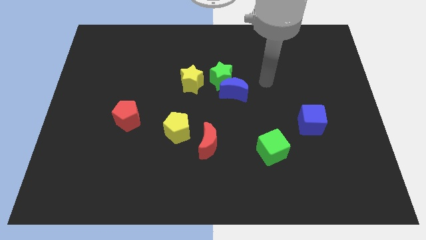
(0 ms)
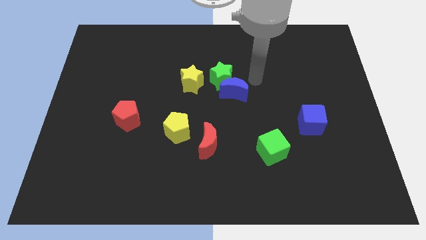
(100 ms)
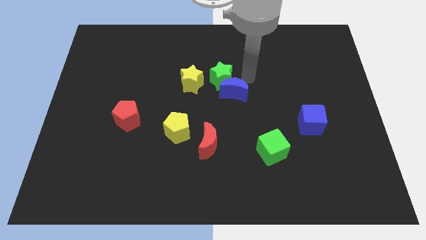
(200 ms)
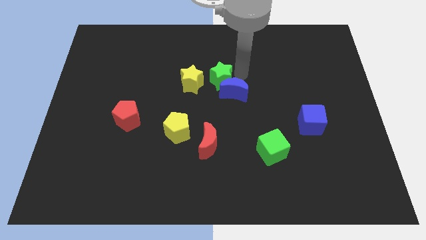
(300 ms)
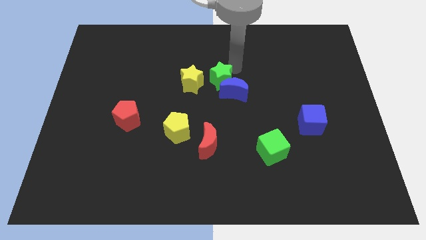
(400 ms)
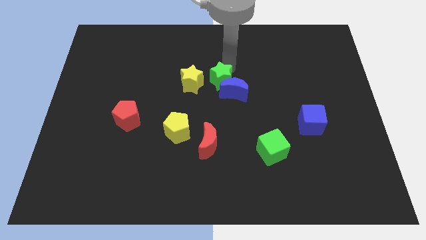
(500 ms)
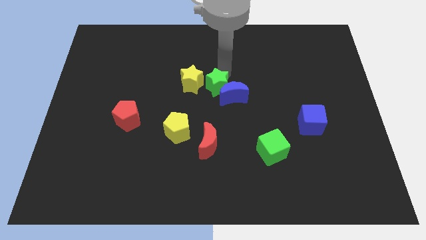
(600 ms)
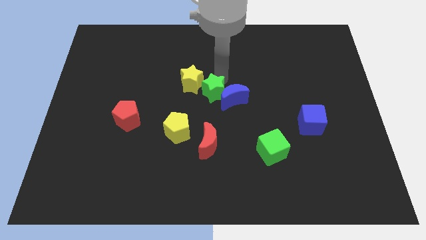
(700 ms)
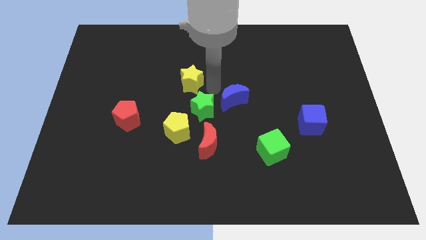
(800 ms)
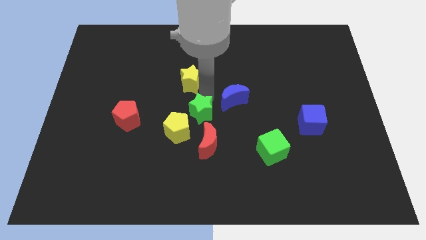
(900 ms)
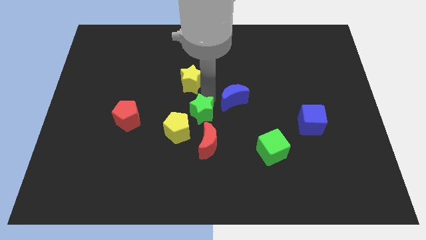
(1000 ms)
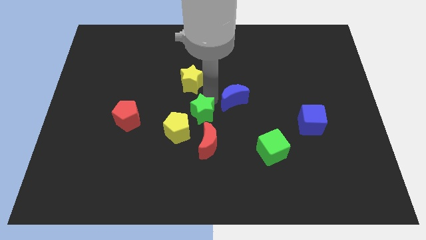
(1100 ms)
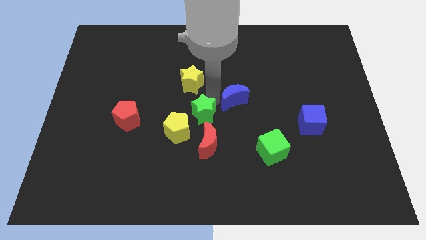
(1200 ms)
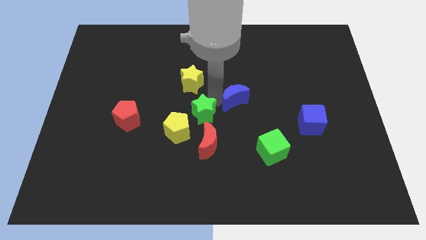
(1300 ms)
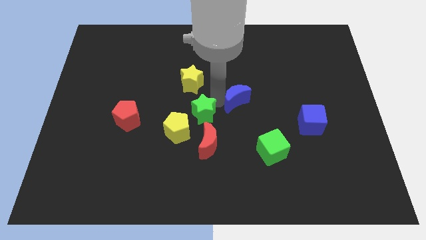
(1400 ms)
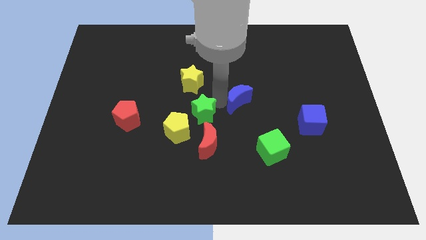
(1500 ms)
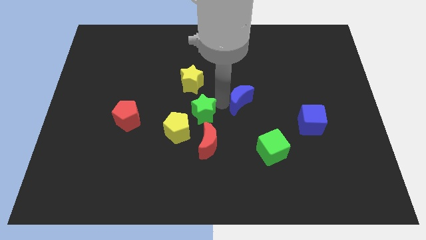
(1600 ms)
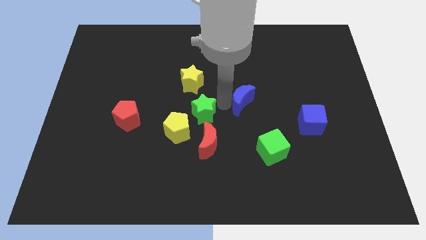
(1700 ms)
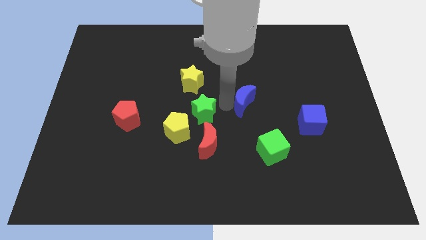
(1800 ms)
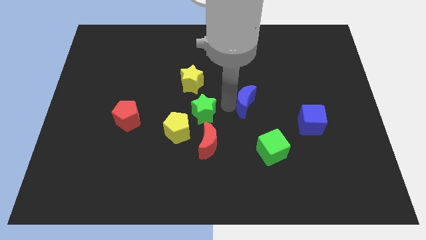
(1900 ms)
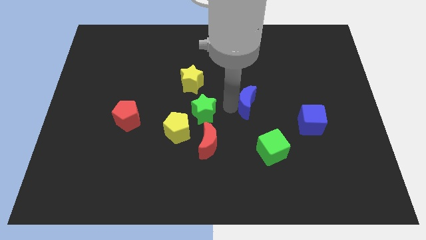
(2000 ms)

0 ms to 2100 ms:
pull the blue moon apart from the green star

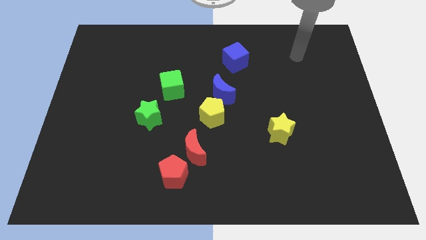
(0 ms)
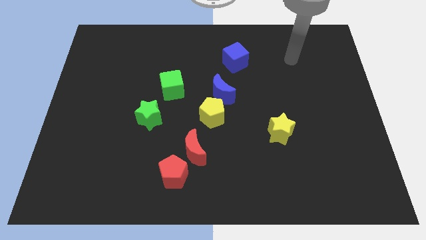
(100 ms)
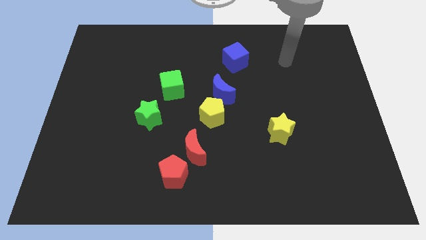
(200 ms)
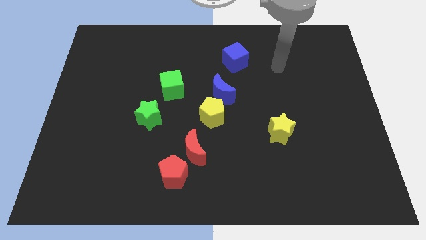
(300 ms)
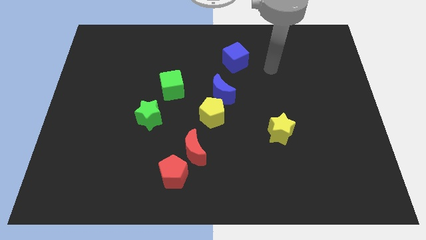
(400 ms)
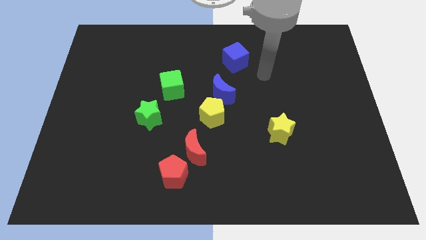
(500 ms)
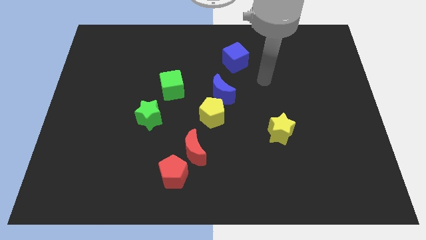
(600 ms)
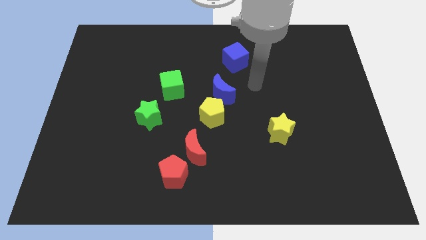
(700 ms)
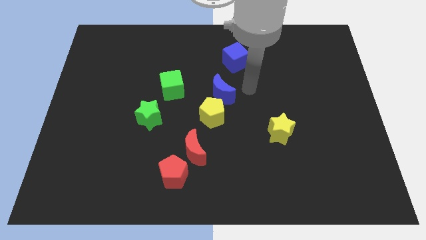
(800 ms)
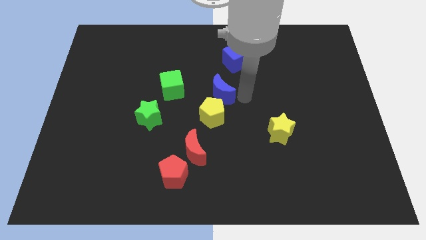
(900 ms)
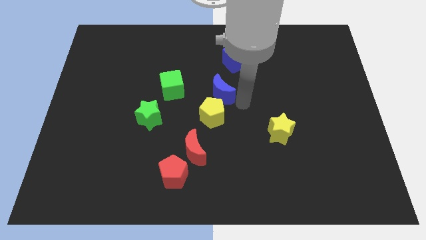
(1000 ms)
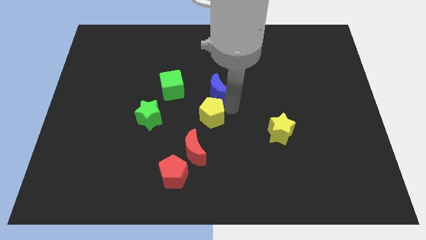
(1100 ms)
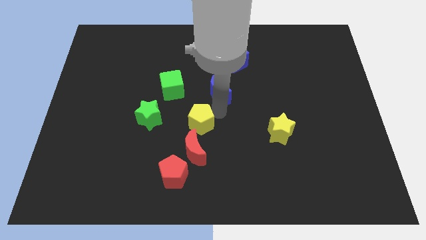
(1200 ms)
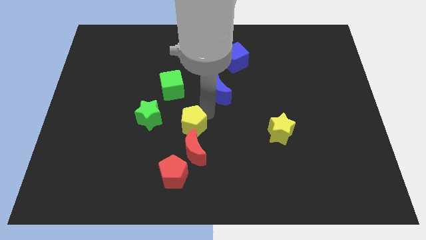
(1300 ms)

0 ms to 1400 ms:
separate the blue moon from the yellow pentagon

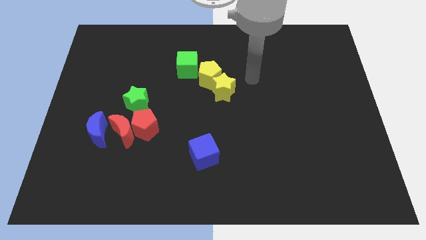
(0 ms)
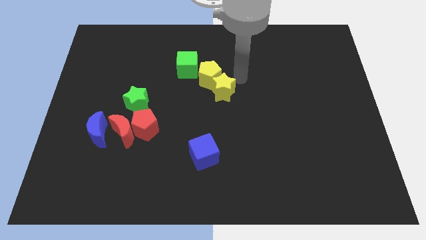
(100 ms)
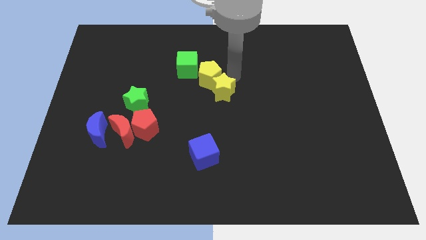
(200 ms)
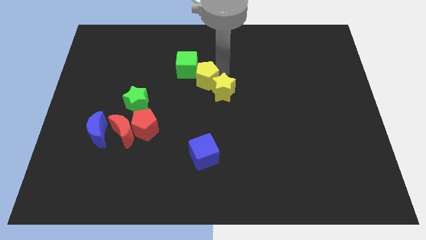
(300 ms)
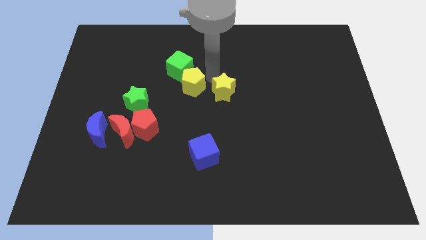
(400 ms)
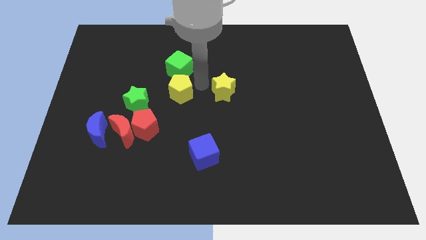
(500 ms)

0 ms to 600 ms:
move the yellow star away from the yellow pentagon

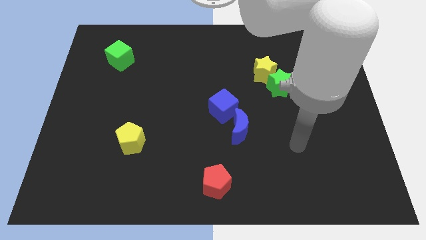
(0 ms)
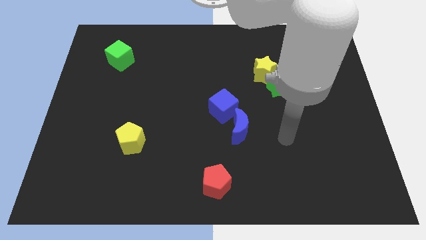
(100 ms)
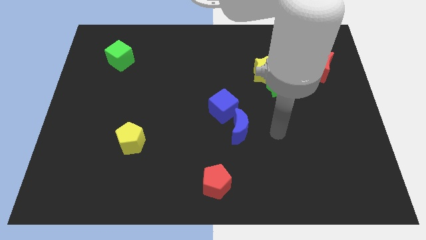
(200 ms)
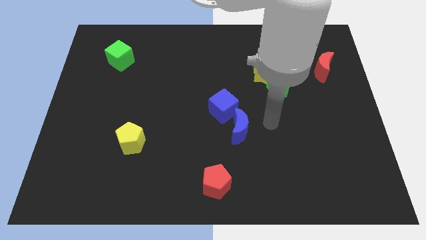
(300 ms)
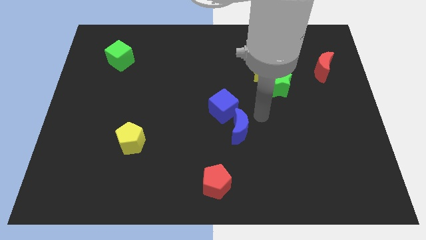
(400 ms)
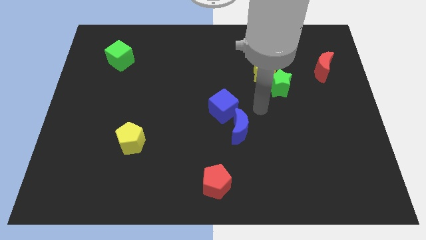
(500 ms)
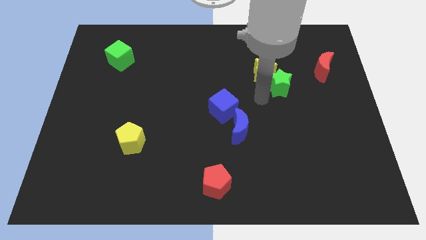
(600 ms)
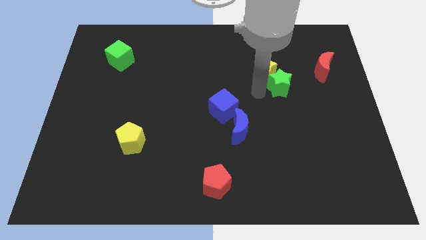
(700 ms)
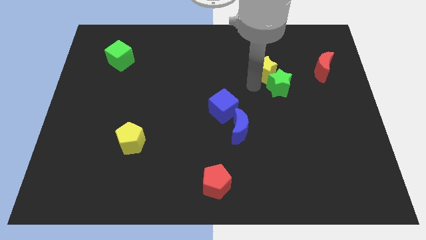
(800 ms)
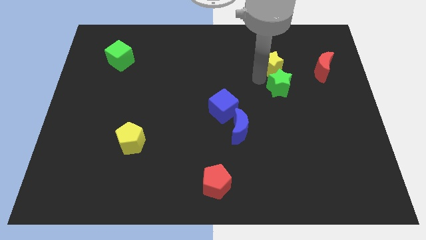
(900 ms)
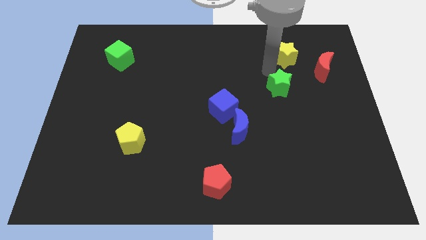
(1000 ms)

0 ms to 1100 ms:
separate the green star from the yellow star

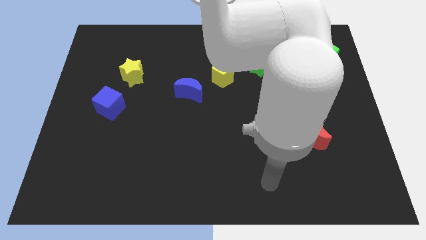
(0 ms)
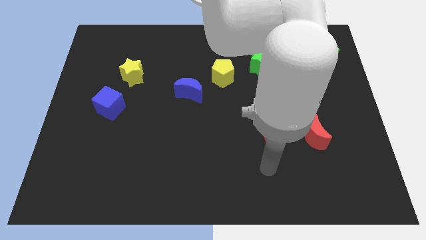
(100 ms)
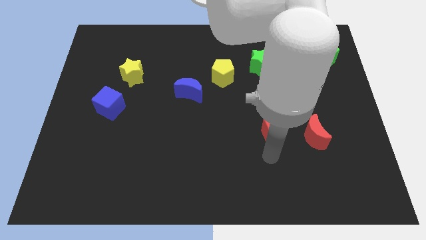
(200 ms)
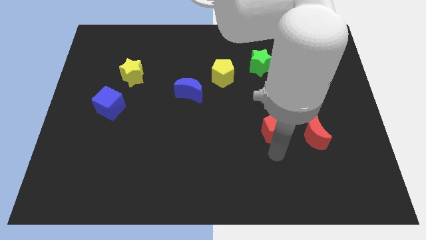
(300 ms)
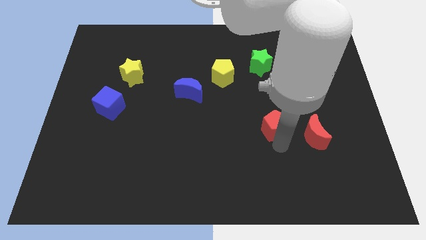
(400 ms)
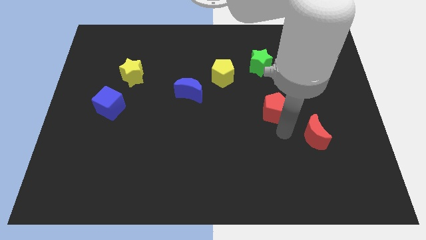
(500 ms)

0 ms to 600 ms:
pull the red moon apart from the red pentagon

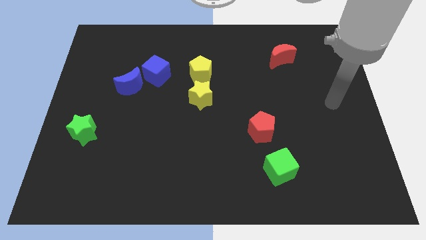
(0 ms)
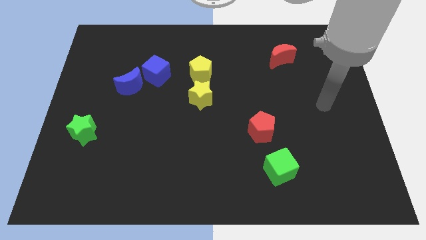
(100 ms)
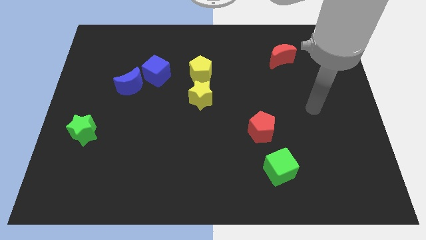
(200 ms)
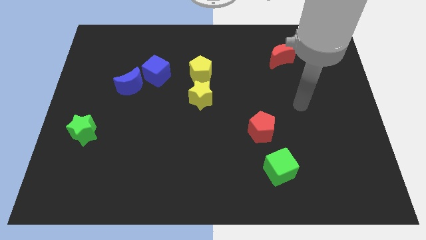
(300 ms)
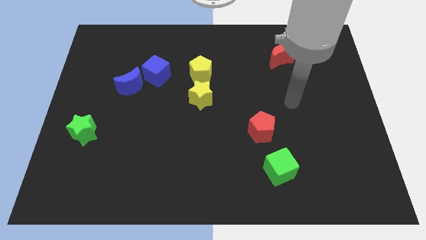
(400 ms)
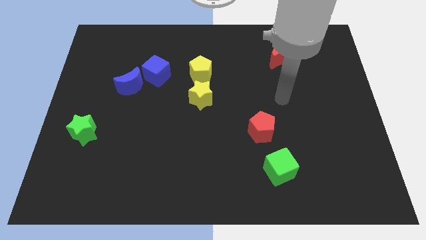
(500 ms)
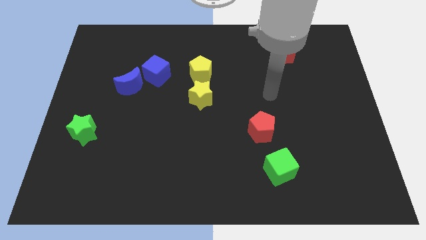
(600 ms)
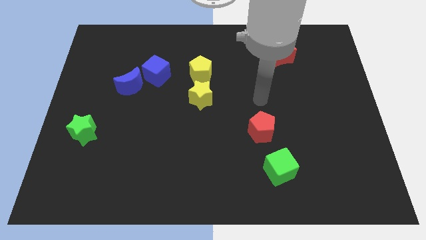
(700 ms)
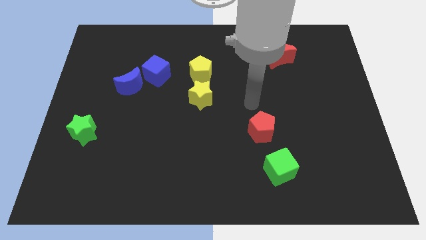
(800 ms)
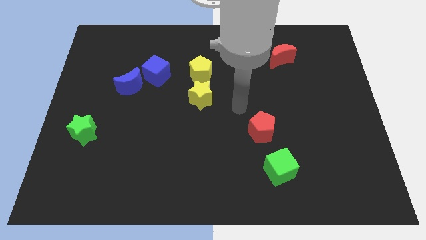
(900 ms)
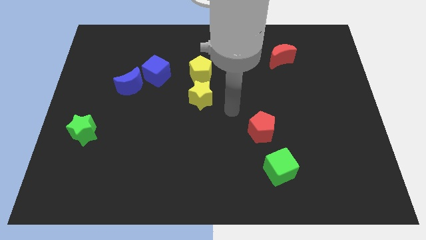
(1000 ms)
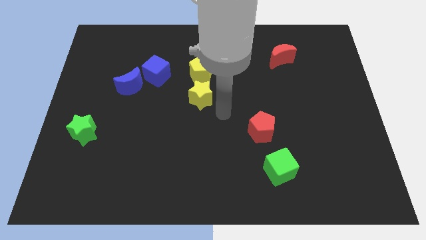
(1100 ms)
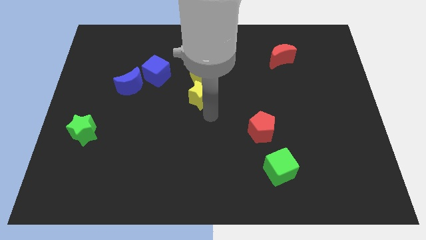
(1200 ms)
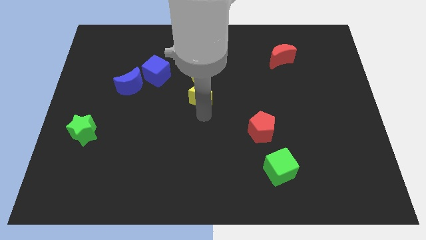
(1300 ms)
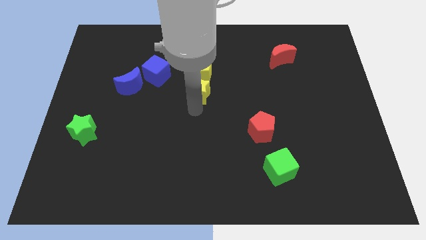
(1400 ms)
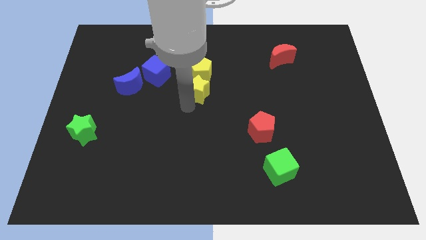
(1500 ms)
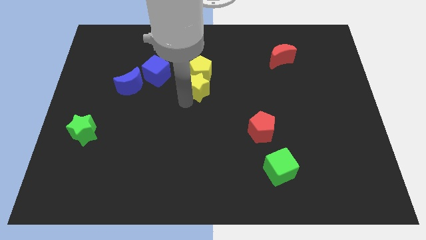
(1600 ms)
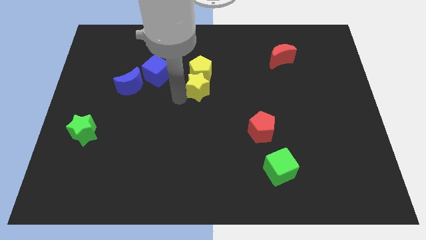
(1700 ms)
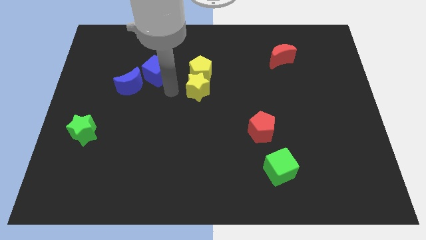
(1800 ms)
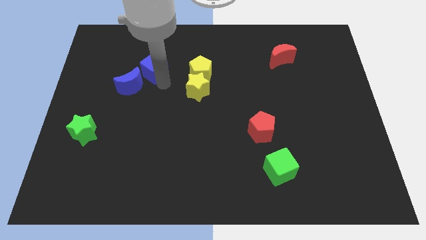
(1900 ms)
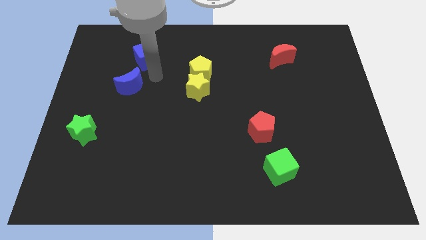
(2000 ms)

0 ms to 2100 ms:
move the blue moon away from the blue cube

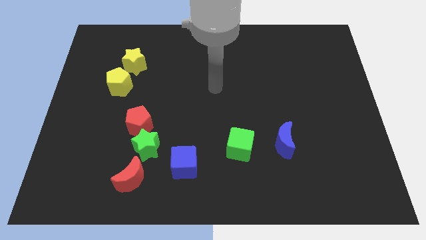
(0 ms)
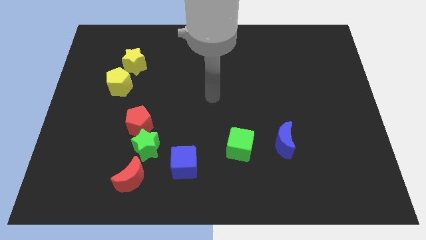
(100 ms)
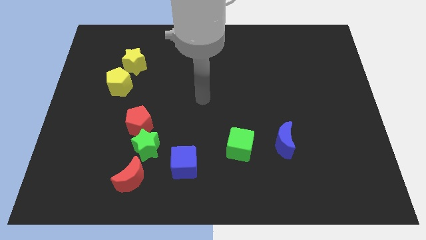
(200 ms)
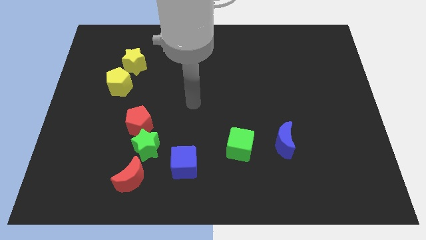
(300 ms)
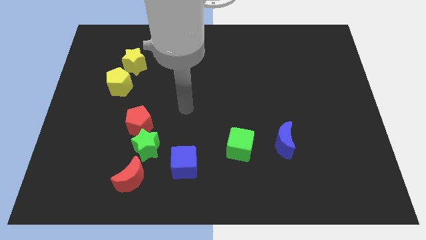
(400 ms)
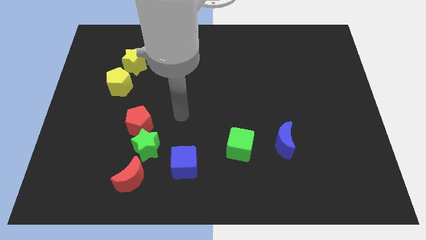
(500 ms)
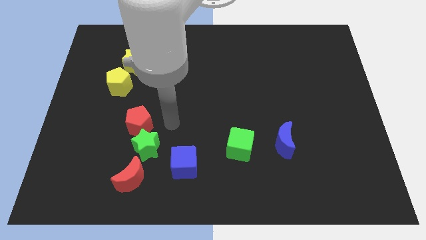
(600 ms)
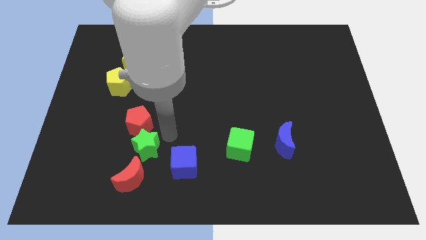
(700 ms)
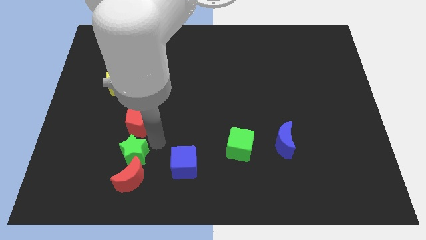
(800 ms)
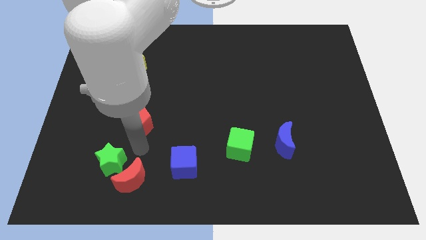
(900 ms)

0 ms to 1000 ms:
move the red pentagon away from the green star

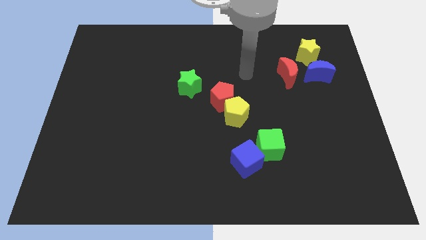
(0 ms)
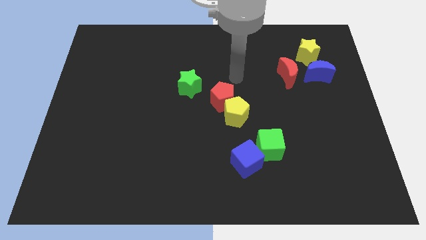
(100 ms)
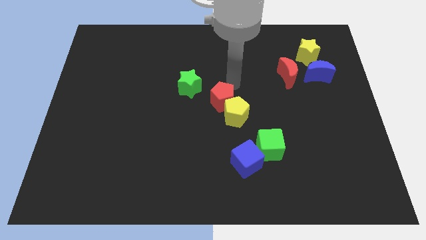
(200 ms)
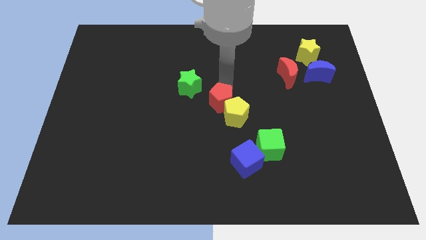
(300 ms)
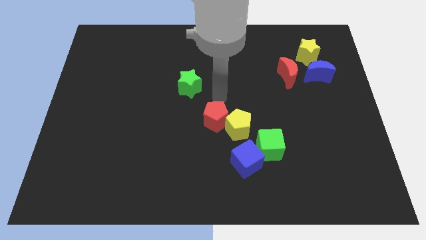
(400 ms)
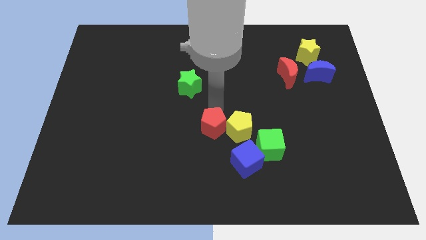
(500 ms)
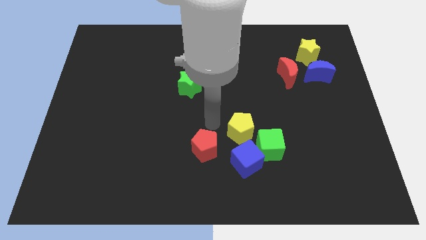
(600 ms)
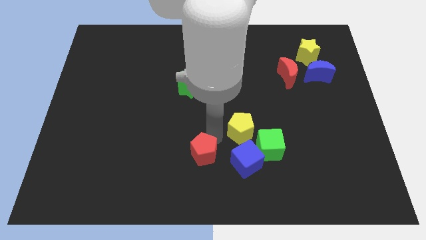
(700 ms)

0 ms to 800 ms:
move the yellow pentagon away from the red pentagon
